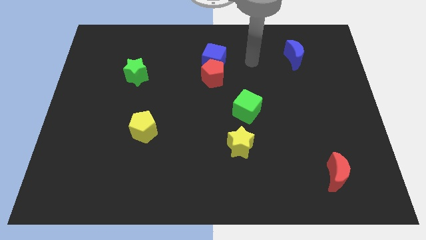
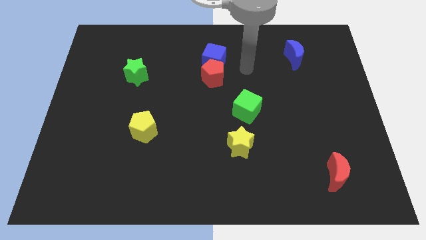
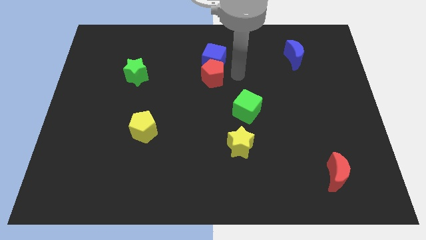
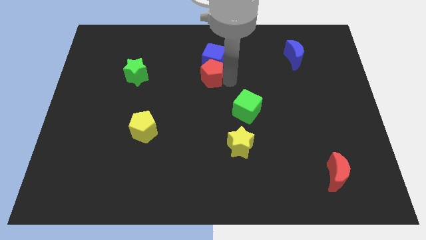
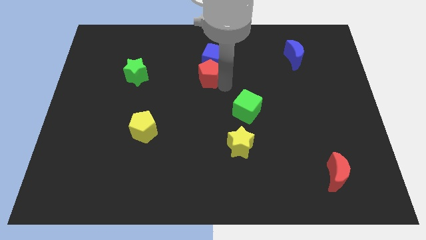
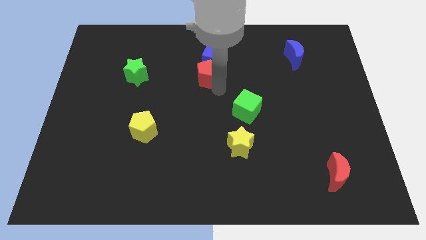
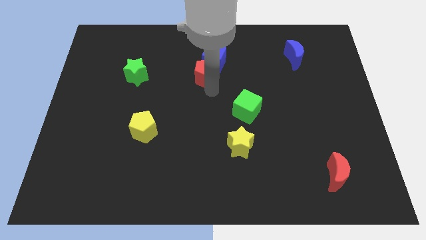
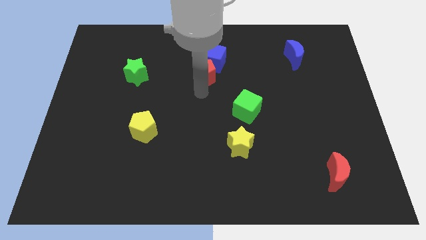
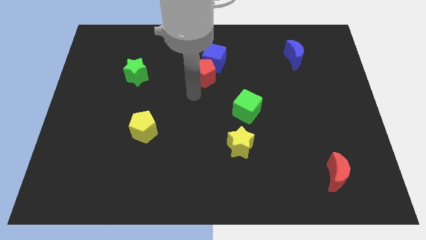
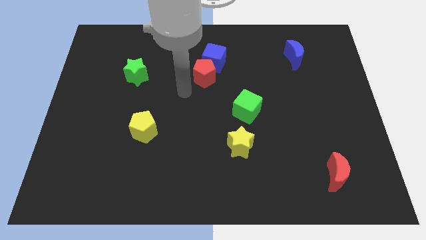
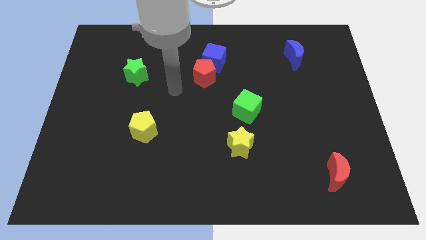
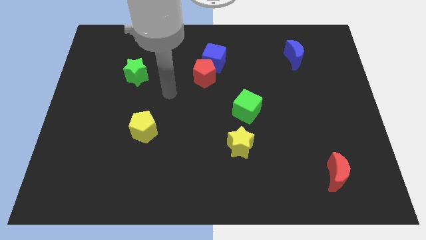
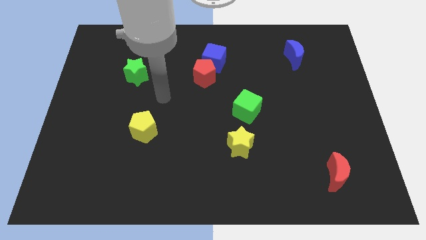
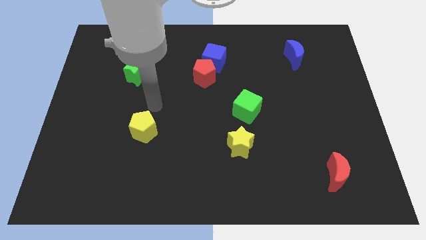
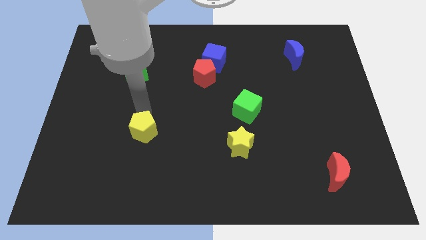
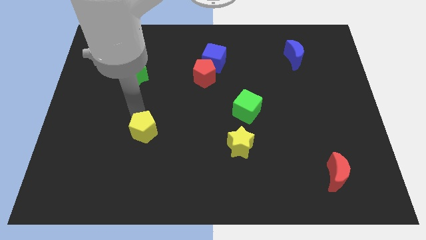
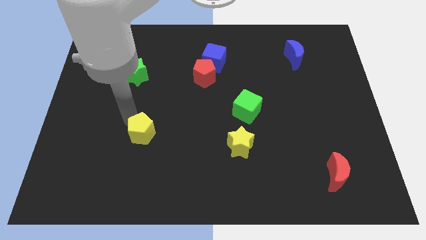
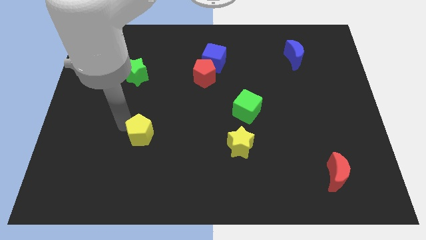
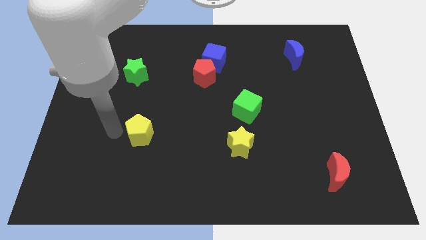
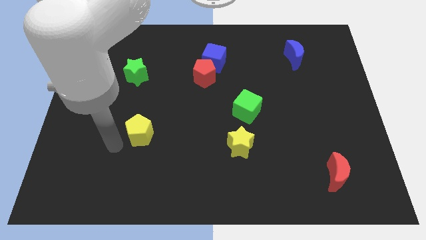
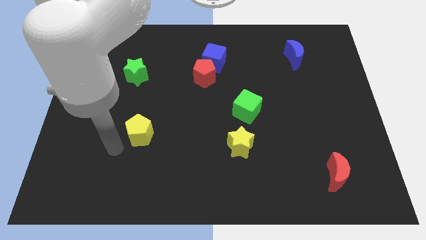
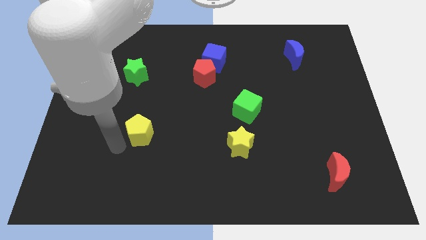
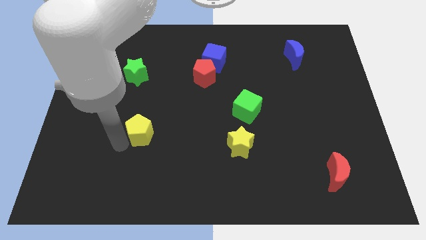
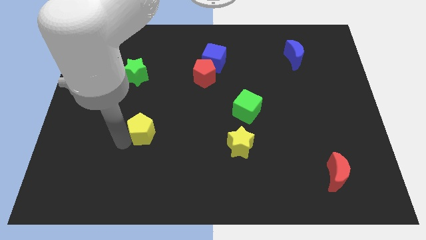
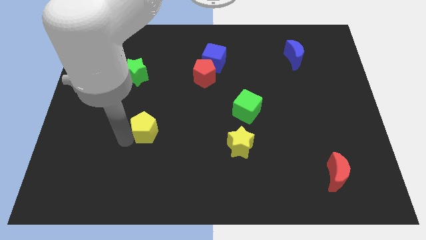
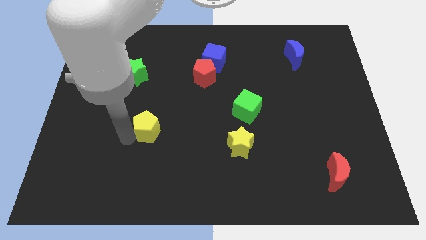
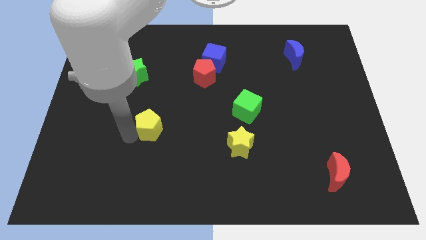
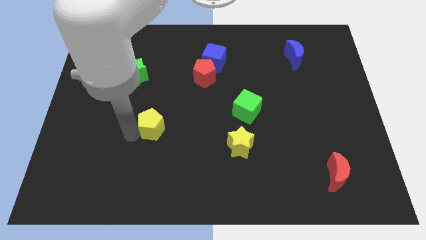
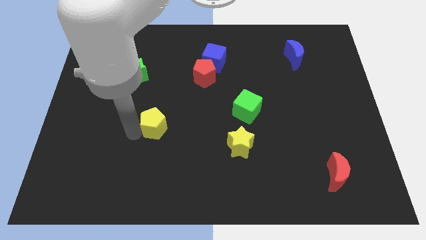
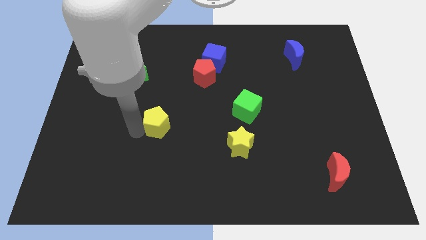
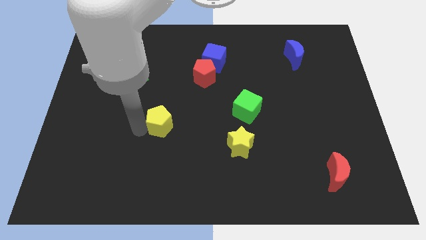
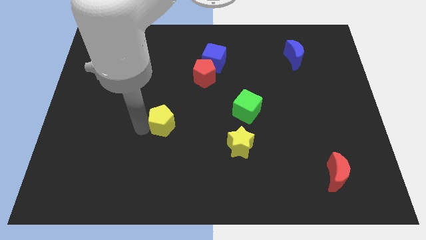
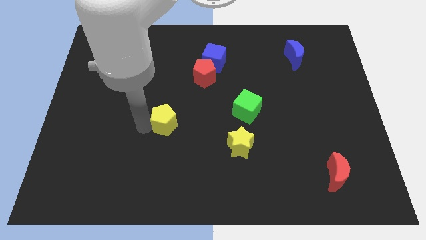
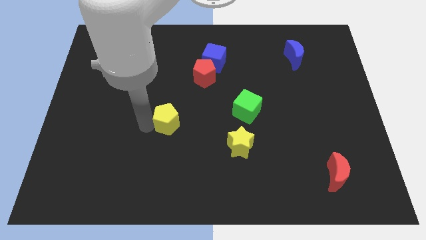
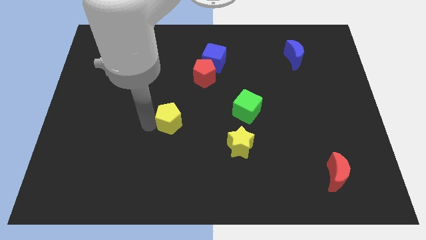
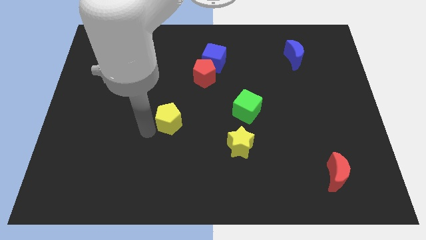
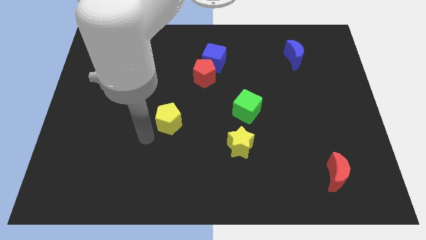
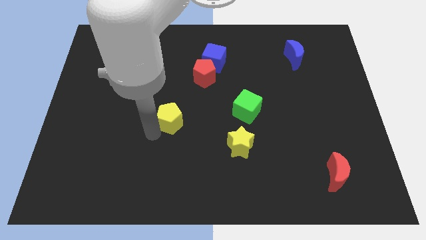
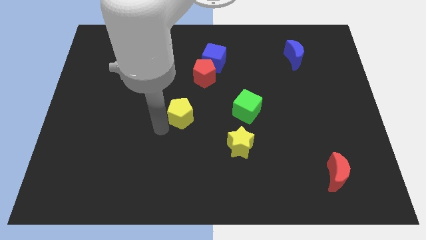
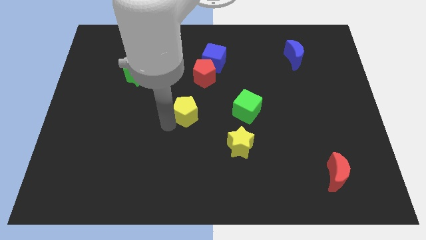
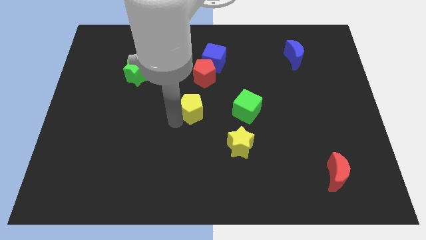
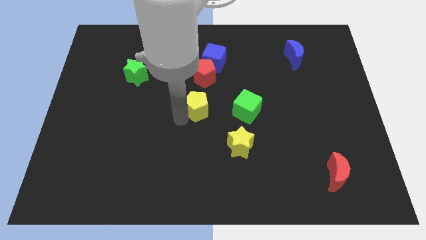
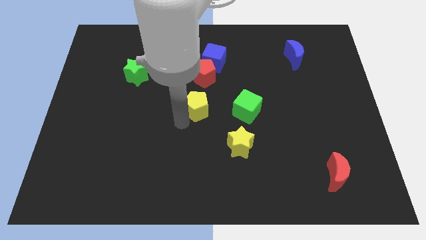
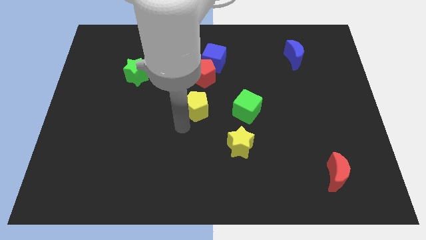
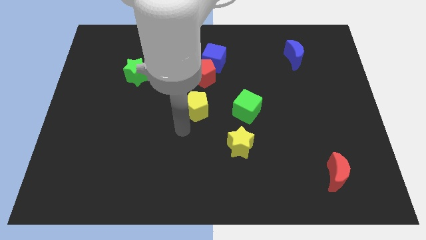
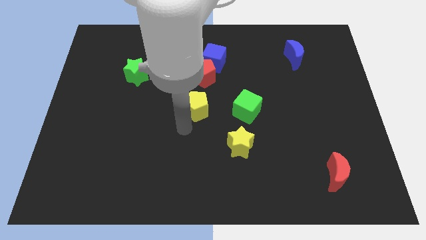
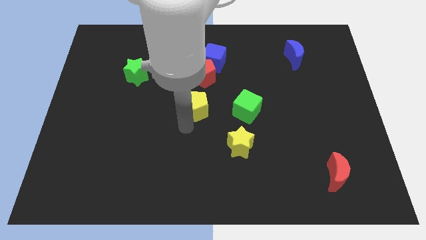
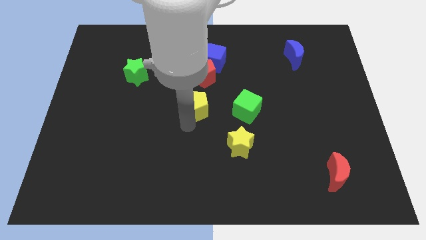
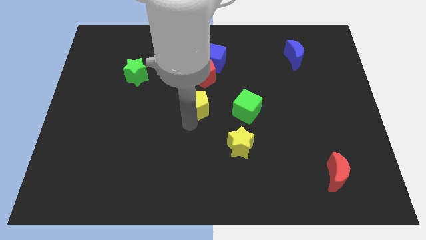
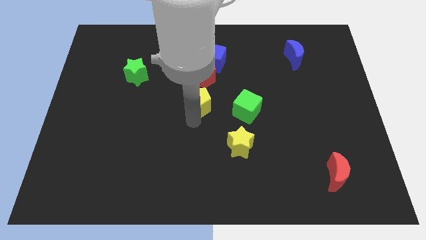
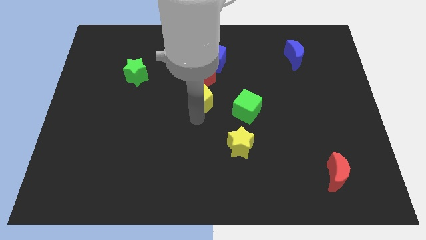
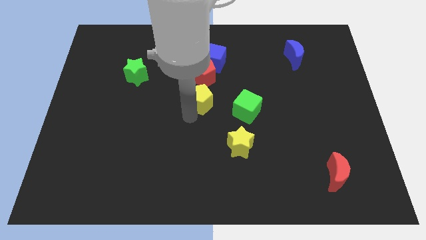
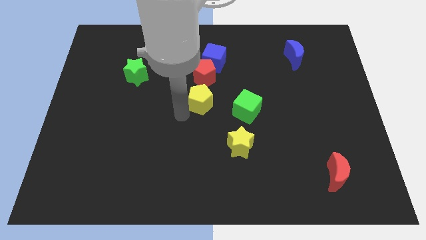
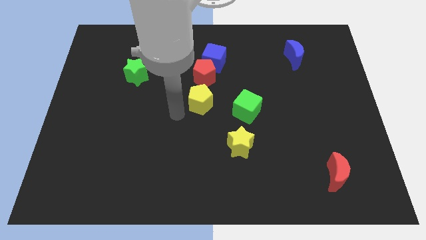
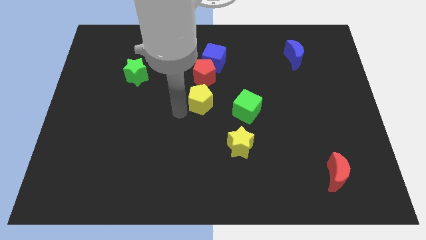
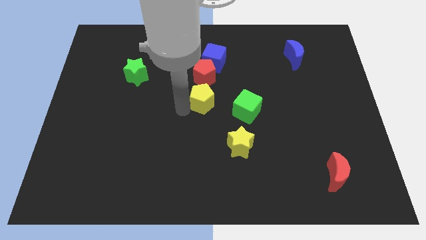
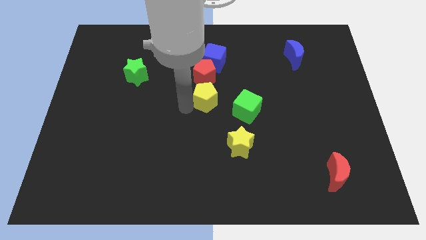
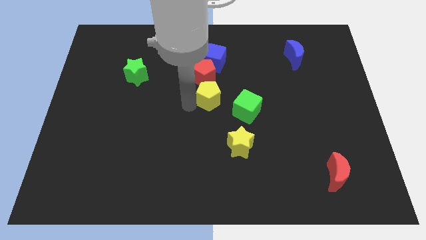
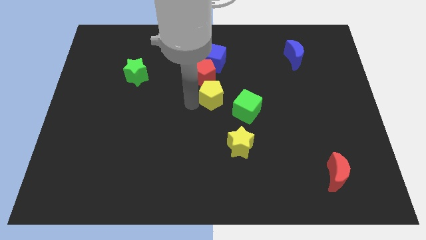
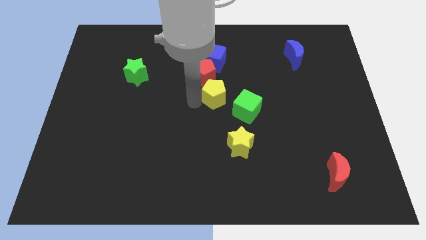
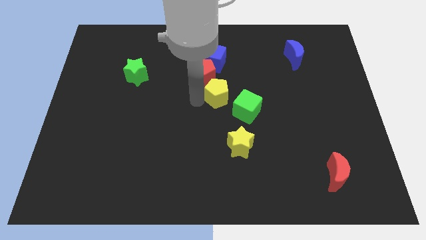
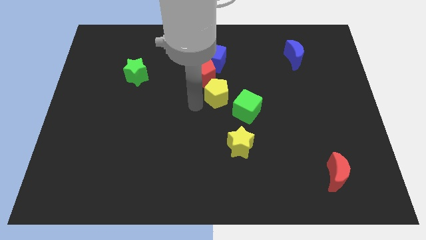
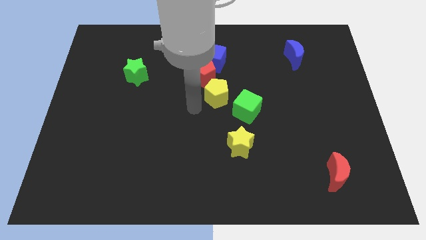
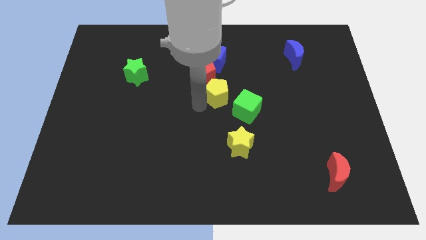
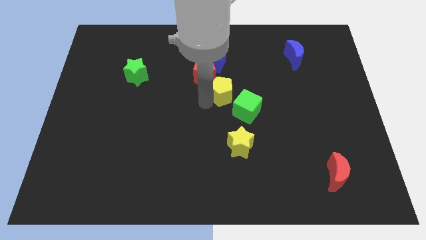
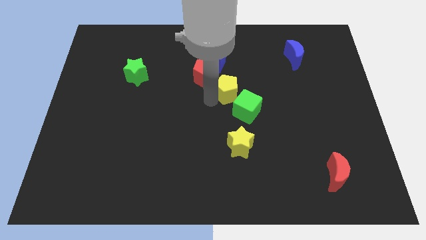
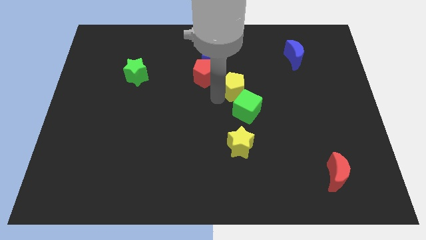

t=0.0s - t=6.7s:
push the yellow pentagon just right of the red pentagon
